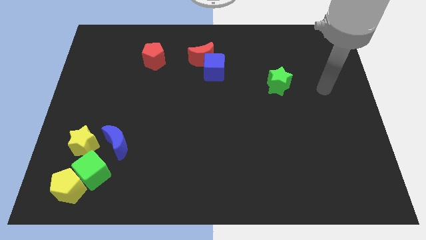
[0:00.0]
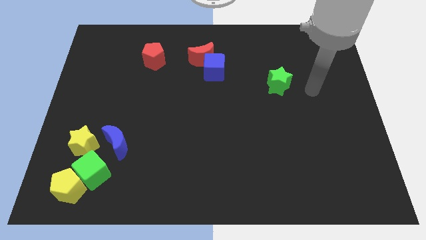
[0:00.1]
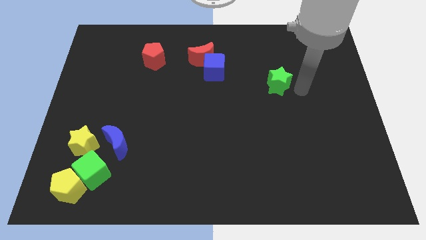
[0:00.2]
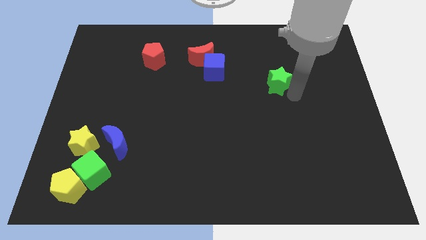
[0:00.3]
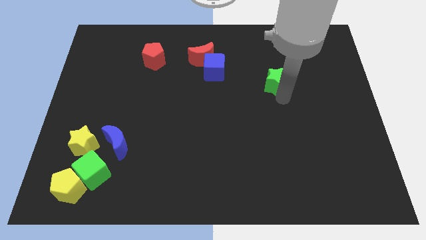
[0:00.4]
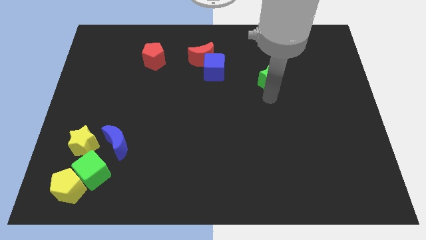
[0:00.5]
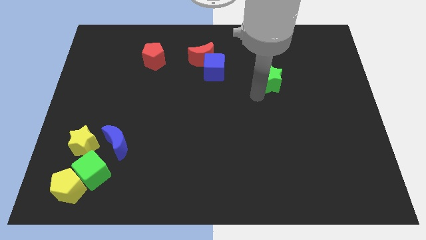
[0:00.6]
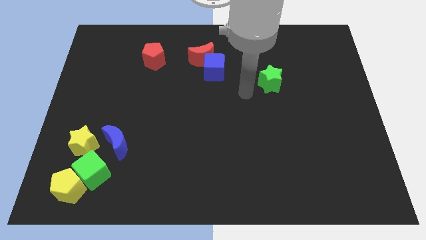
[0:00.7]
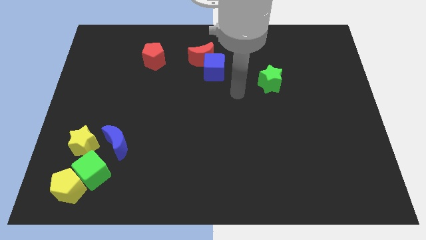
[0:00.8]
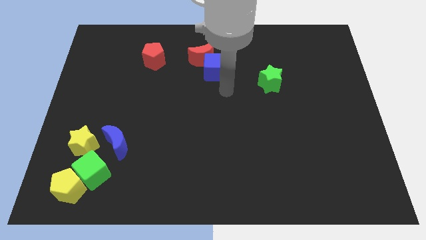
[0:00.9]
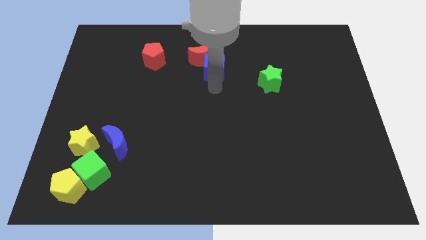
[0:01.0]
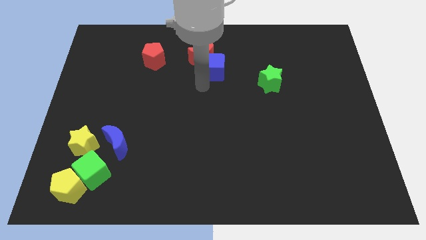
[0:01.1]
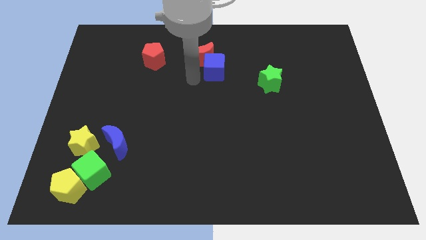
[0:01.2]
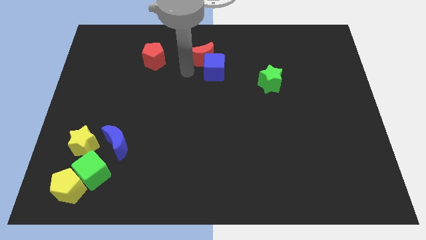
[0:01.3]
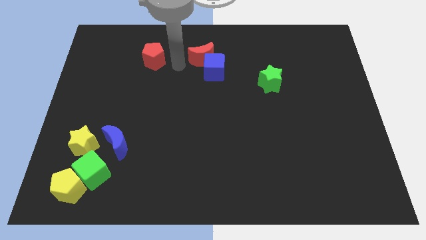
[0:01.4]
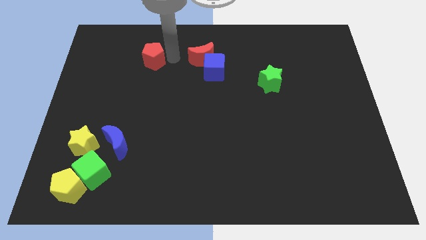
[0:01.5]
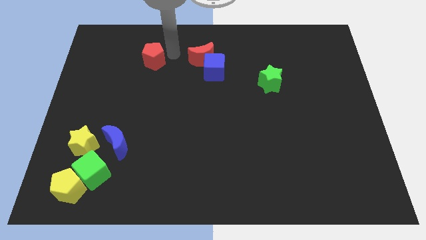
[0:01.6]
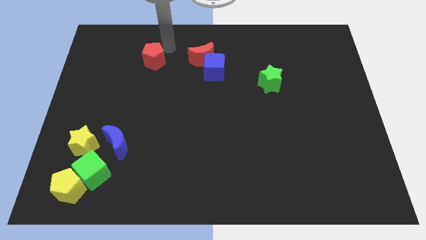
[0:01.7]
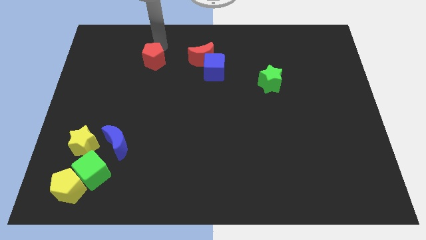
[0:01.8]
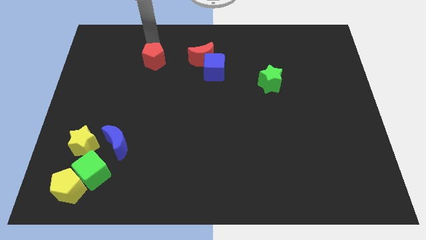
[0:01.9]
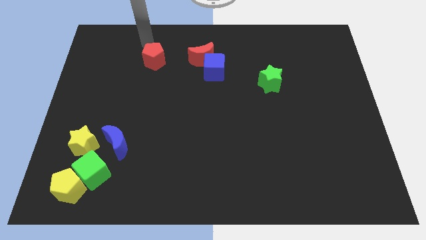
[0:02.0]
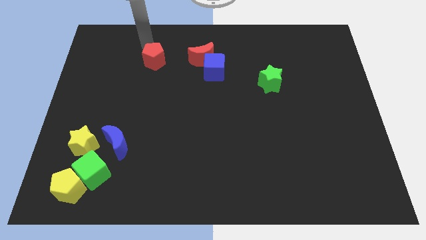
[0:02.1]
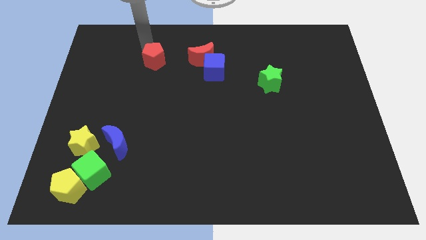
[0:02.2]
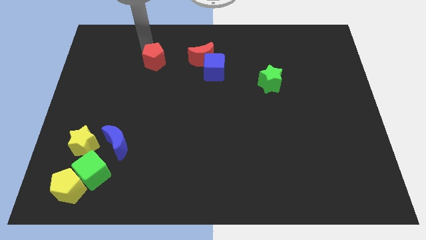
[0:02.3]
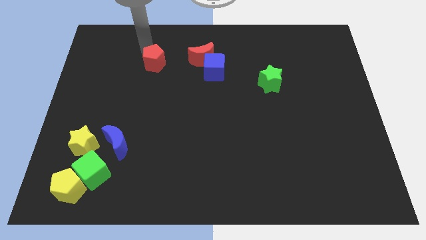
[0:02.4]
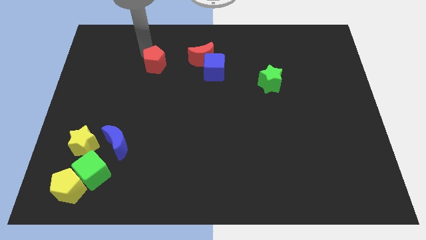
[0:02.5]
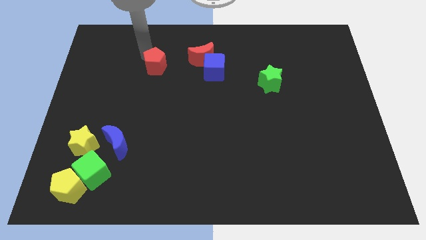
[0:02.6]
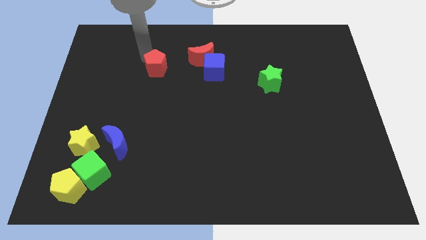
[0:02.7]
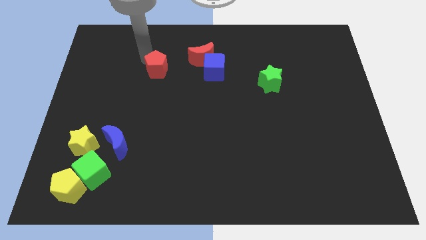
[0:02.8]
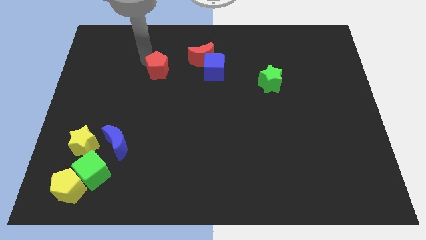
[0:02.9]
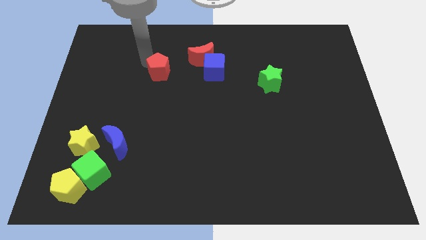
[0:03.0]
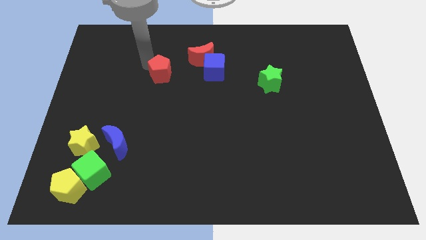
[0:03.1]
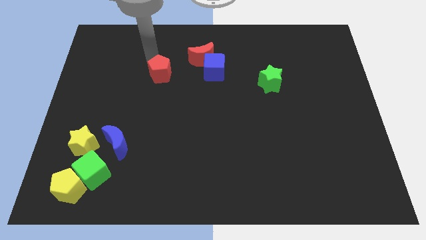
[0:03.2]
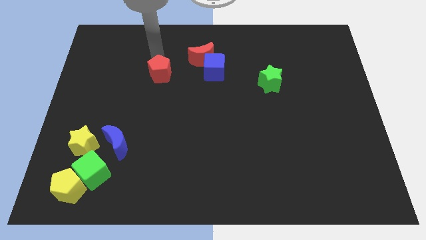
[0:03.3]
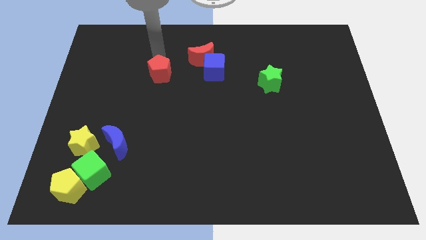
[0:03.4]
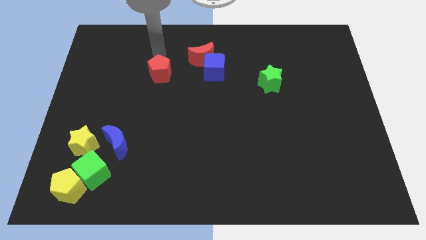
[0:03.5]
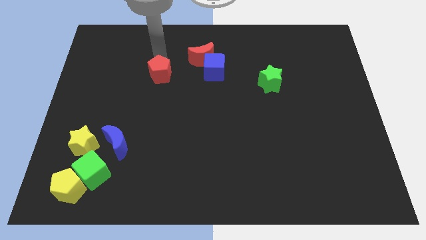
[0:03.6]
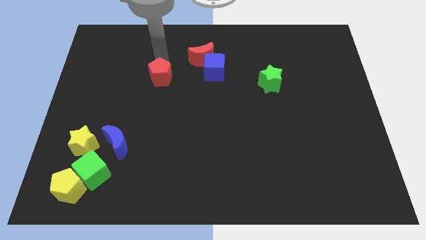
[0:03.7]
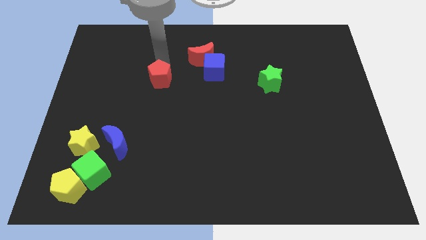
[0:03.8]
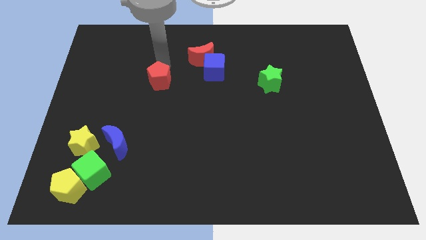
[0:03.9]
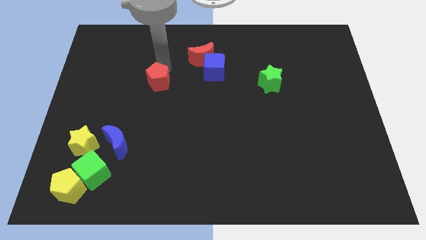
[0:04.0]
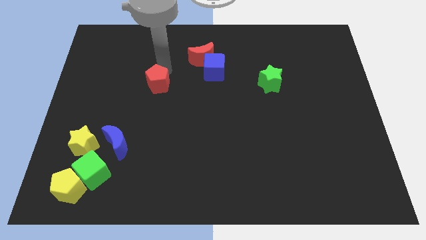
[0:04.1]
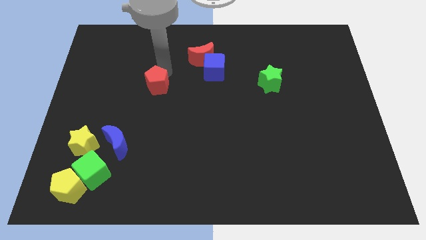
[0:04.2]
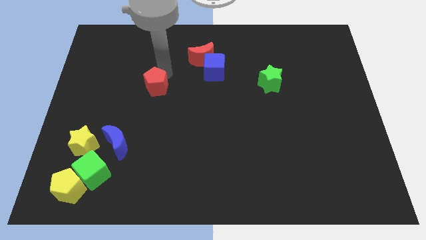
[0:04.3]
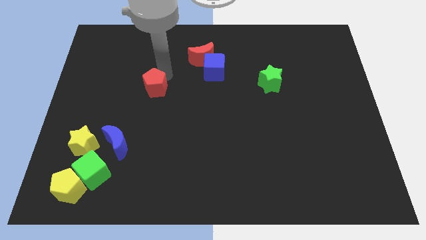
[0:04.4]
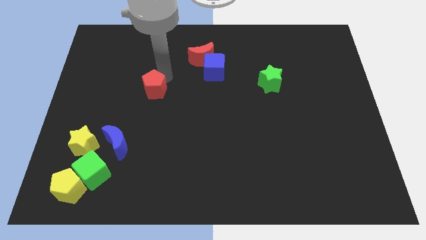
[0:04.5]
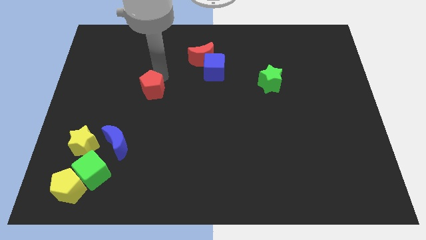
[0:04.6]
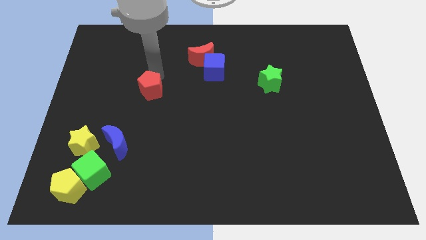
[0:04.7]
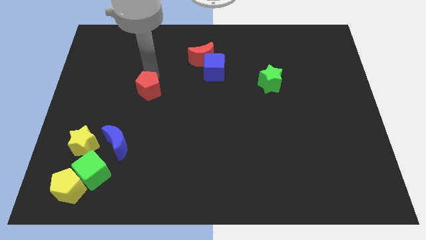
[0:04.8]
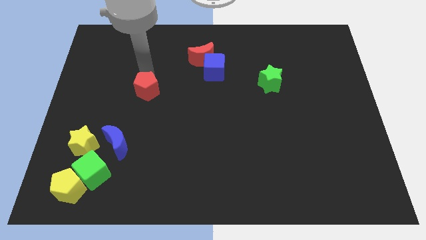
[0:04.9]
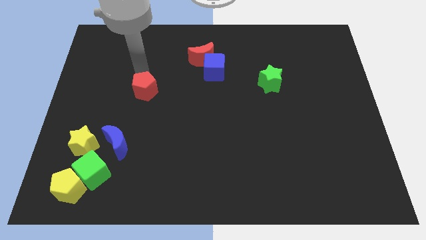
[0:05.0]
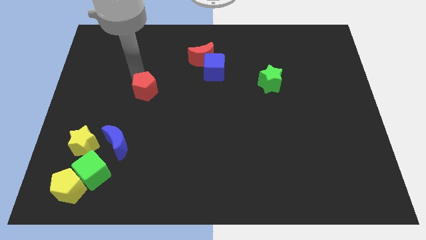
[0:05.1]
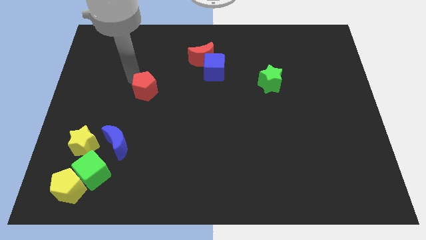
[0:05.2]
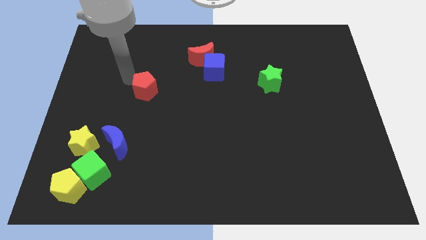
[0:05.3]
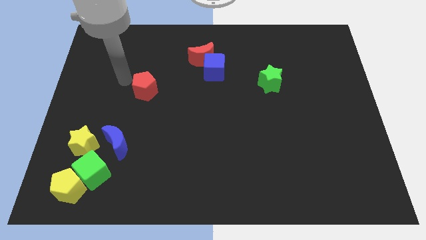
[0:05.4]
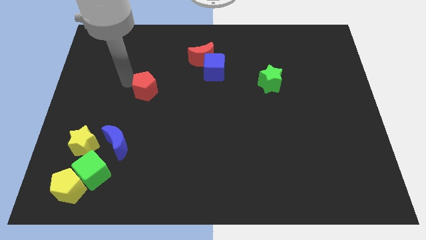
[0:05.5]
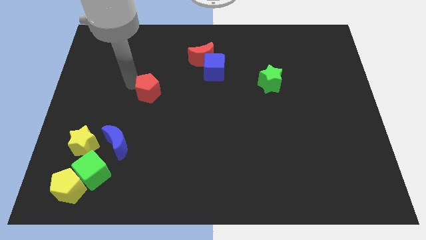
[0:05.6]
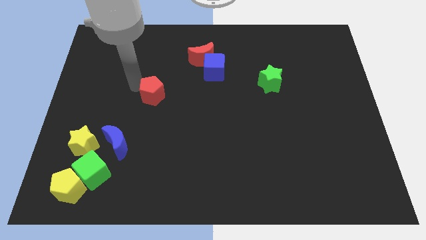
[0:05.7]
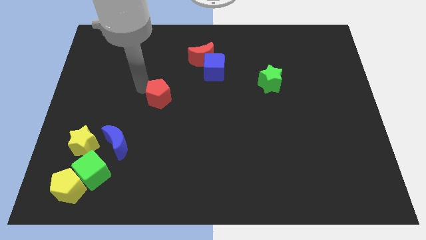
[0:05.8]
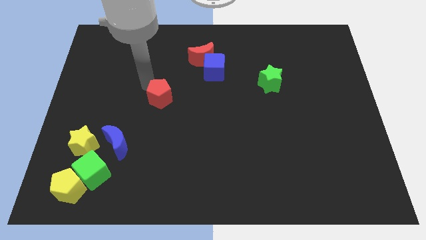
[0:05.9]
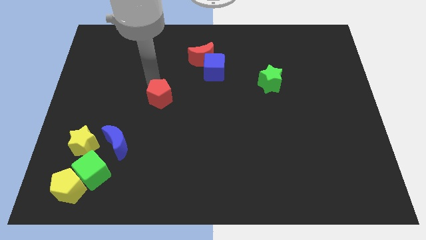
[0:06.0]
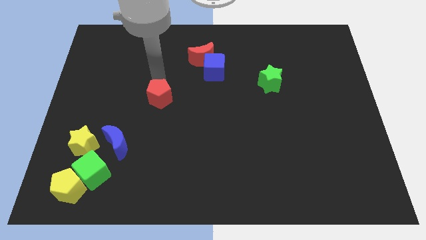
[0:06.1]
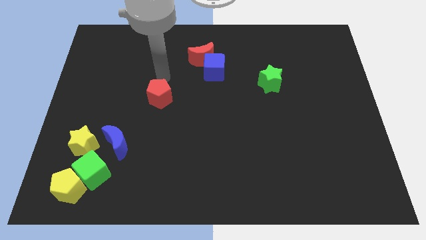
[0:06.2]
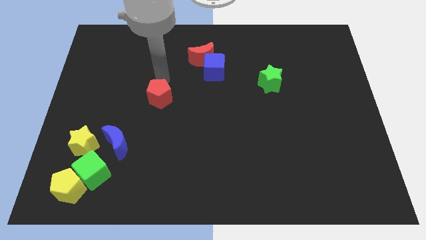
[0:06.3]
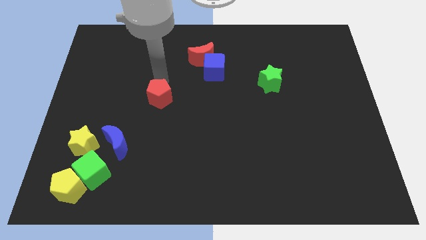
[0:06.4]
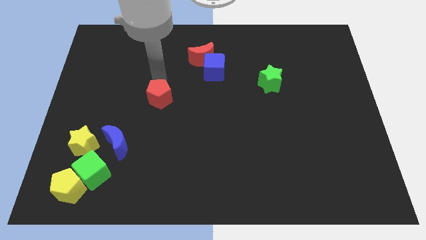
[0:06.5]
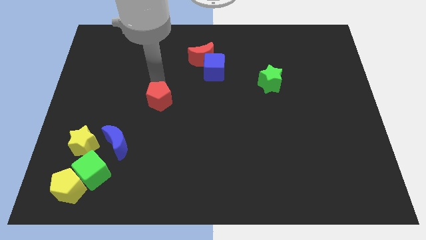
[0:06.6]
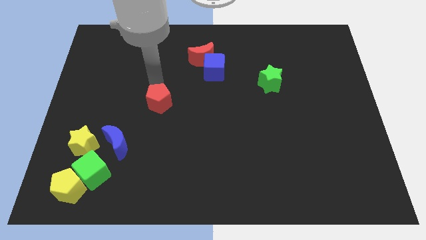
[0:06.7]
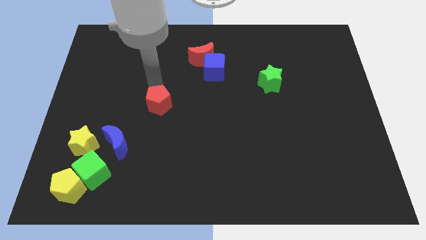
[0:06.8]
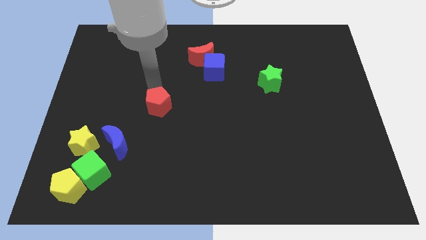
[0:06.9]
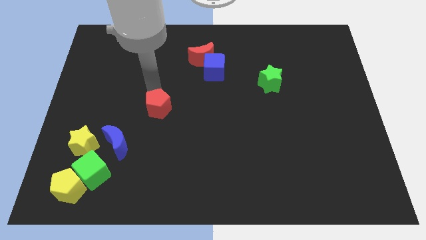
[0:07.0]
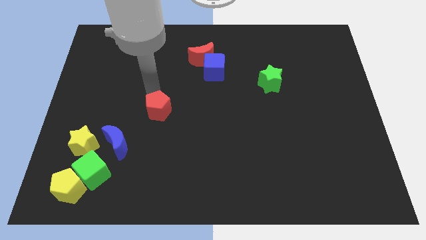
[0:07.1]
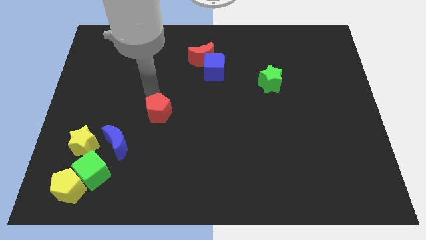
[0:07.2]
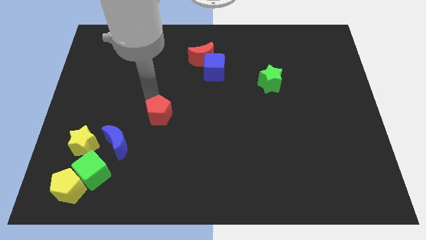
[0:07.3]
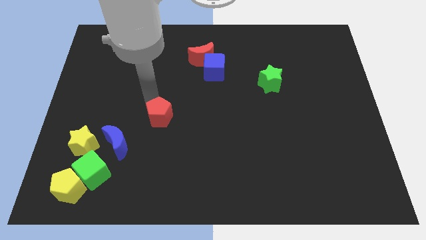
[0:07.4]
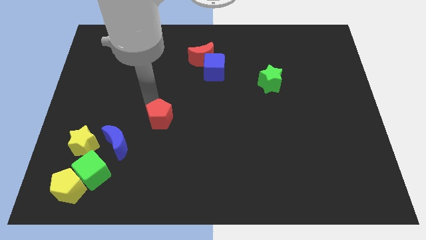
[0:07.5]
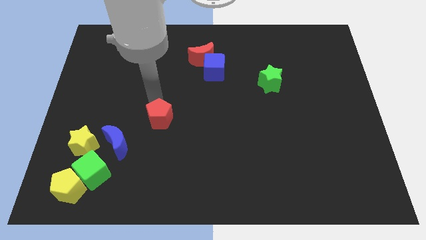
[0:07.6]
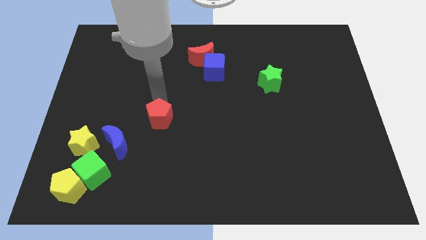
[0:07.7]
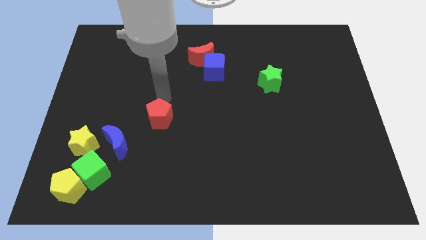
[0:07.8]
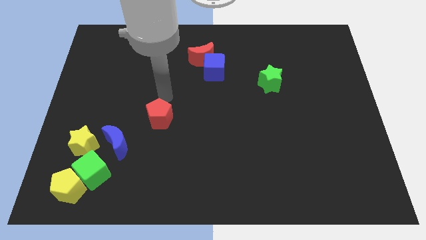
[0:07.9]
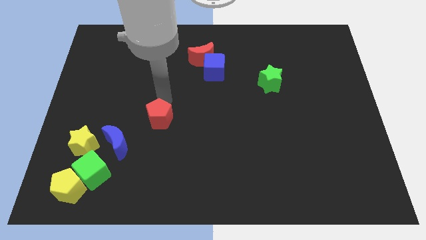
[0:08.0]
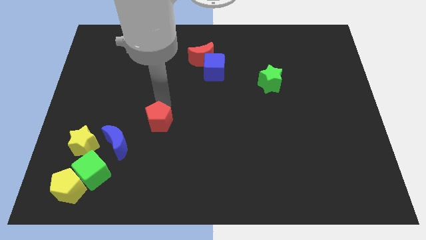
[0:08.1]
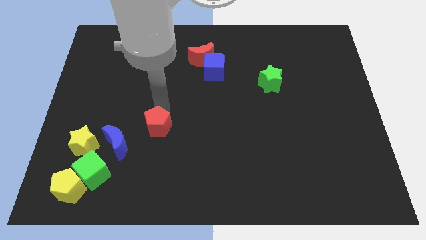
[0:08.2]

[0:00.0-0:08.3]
slide the red pentagon downwards

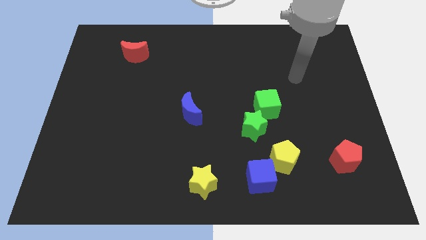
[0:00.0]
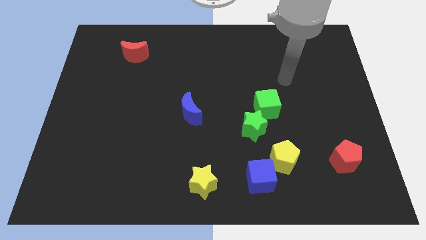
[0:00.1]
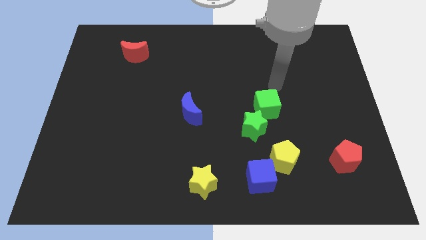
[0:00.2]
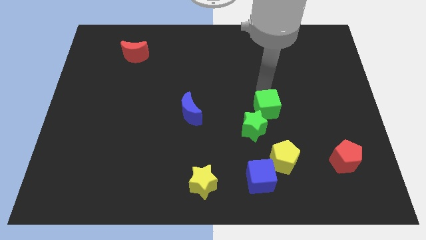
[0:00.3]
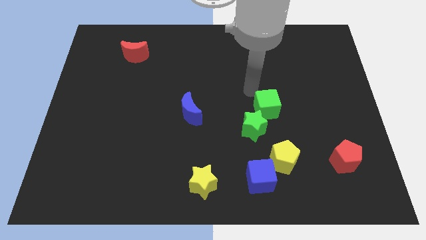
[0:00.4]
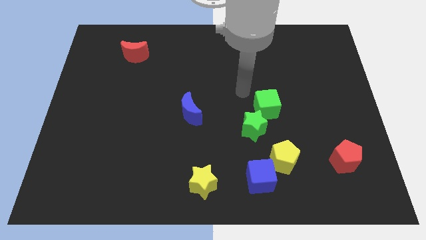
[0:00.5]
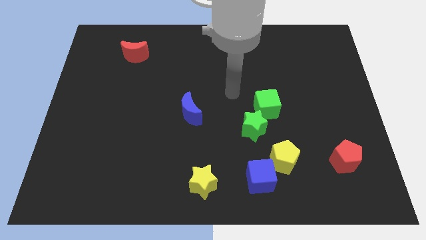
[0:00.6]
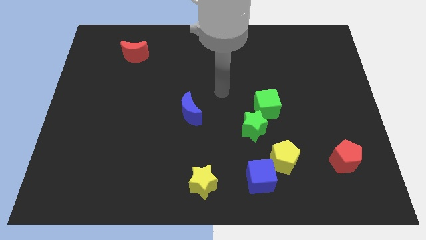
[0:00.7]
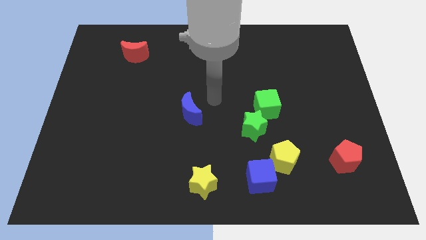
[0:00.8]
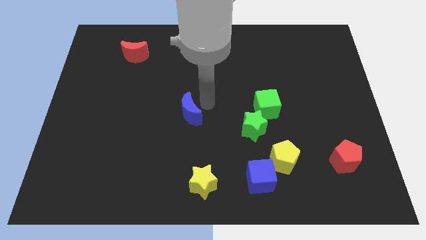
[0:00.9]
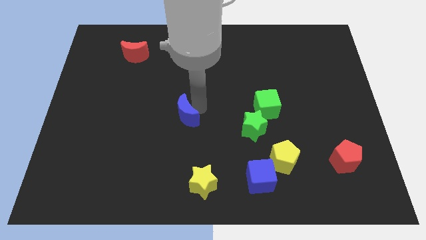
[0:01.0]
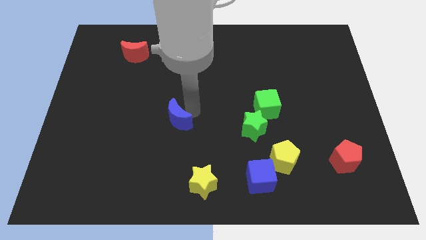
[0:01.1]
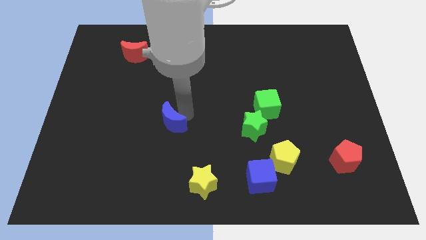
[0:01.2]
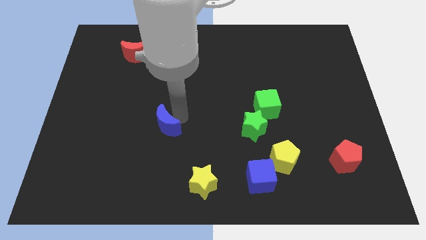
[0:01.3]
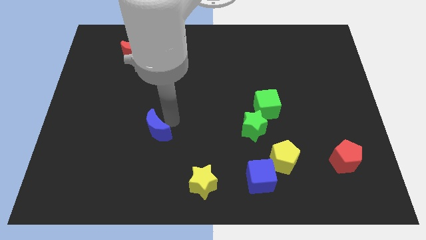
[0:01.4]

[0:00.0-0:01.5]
push the blue moon down and left diagonally a little bit
